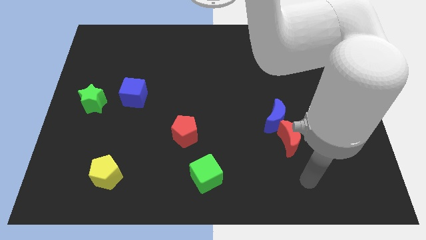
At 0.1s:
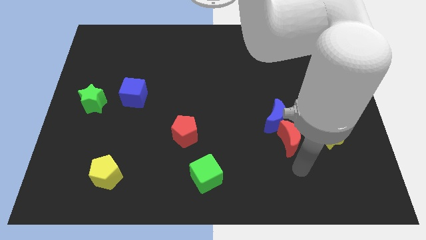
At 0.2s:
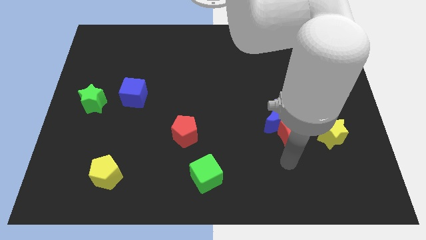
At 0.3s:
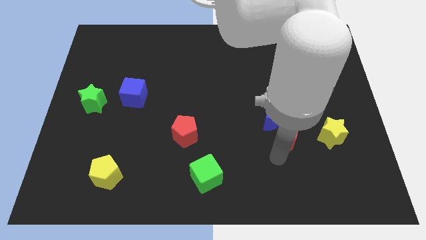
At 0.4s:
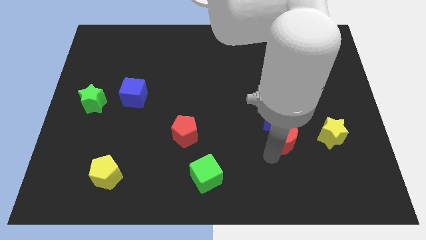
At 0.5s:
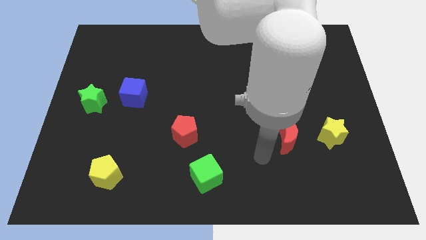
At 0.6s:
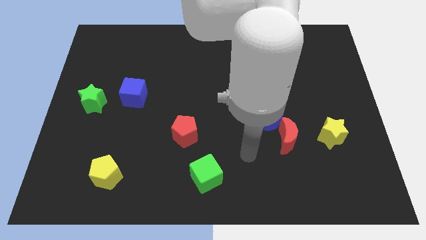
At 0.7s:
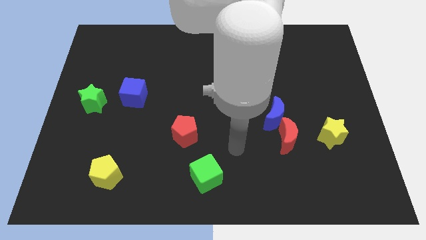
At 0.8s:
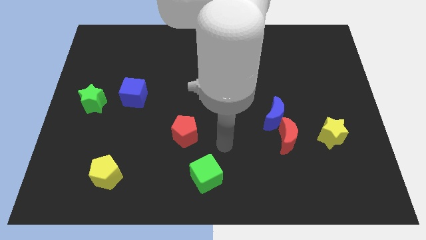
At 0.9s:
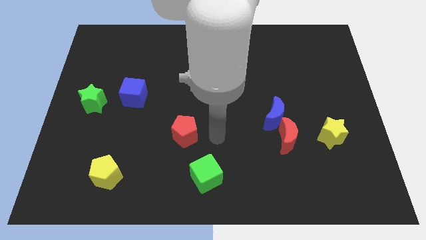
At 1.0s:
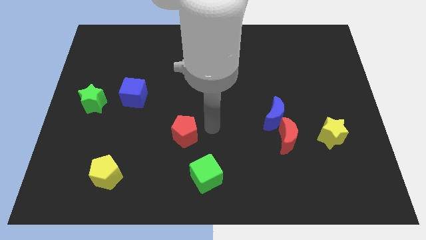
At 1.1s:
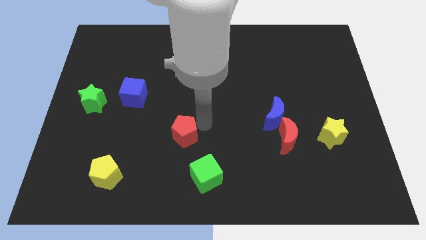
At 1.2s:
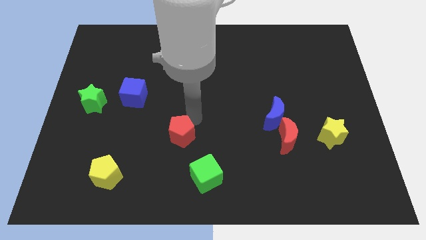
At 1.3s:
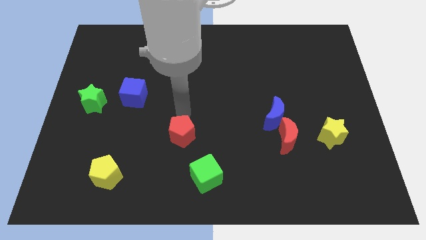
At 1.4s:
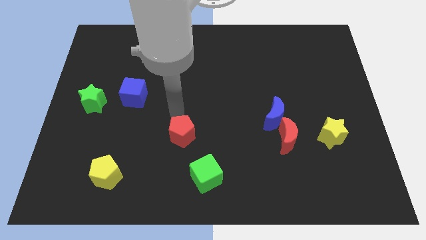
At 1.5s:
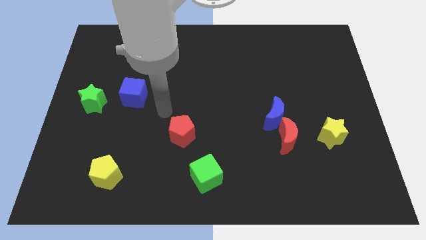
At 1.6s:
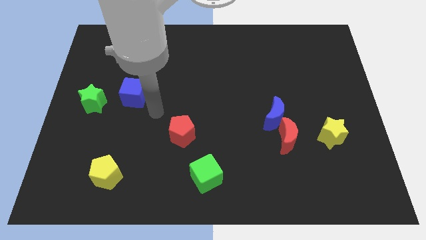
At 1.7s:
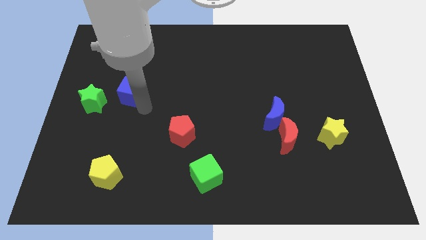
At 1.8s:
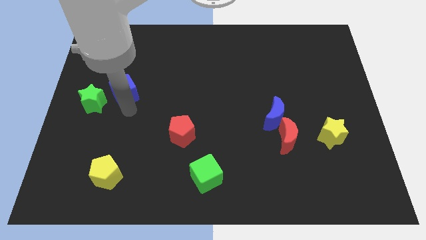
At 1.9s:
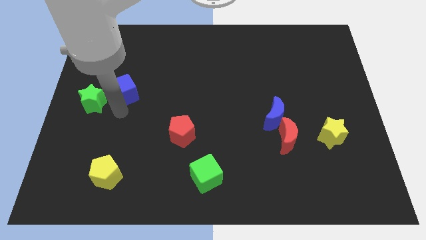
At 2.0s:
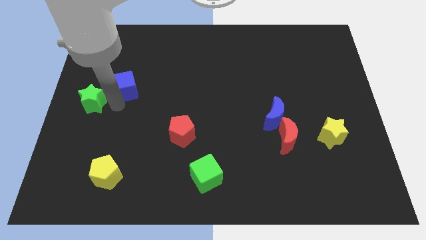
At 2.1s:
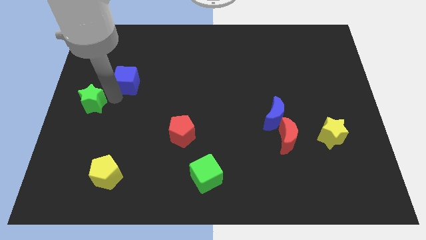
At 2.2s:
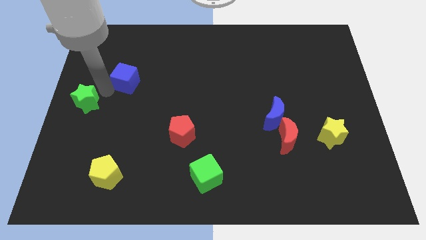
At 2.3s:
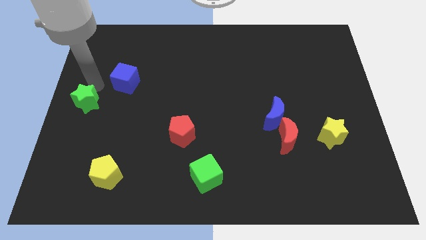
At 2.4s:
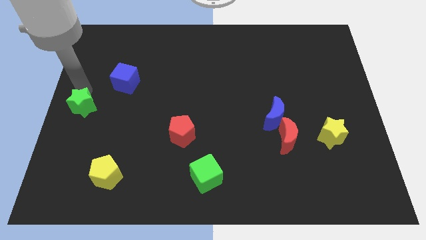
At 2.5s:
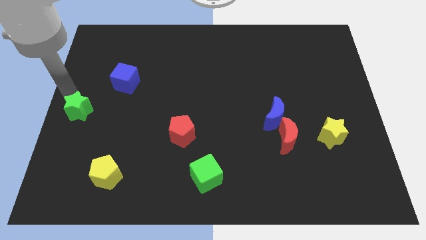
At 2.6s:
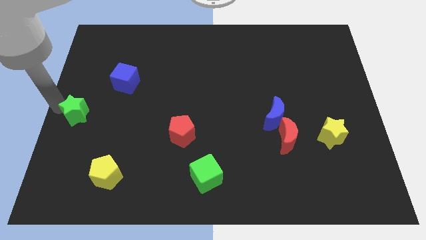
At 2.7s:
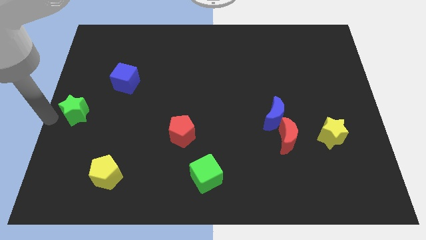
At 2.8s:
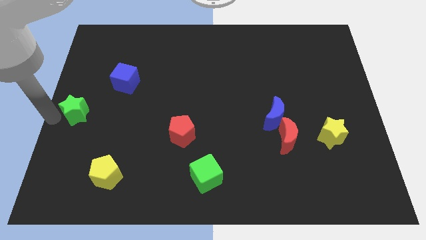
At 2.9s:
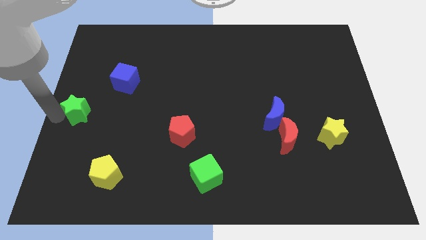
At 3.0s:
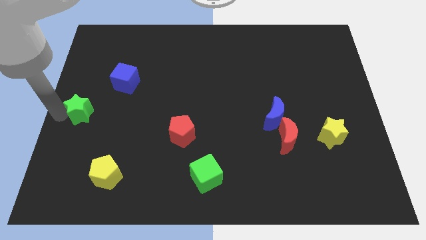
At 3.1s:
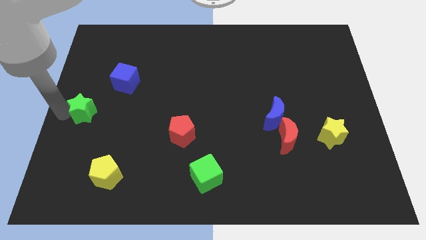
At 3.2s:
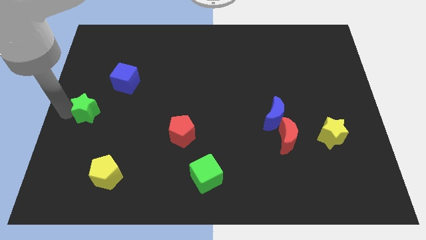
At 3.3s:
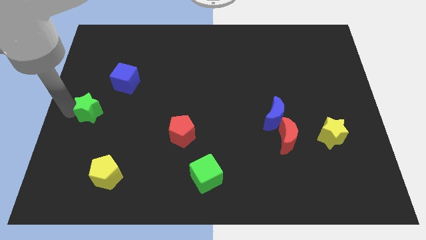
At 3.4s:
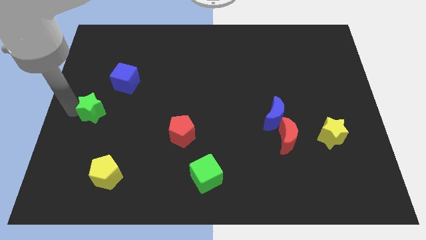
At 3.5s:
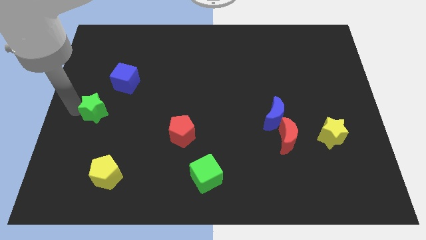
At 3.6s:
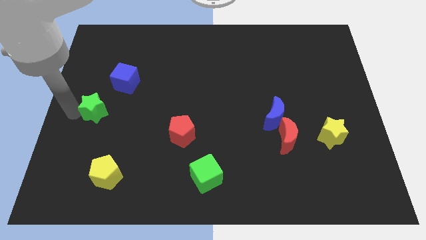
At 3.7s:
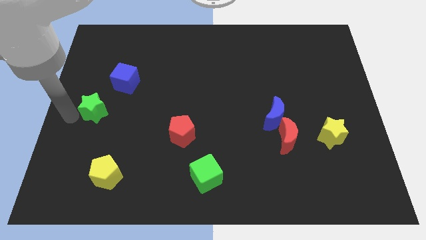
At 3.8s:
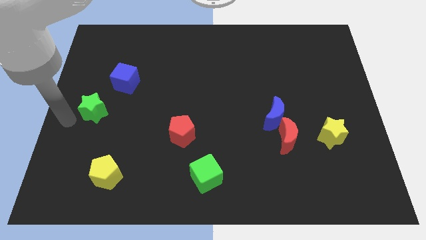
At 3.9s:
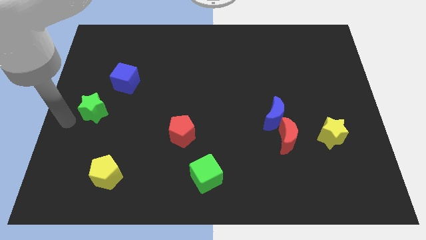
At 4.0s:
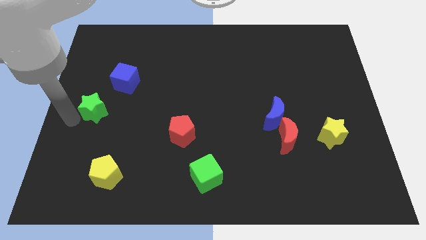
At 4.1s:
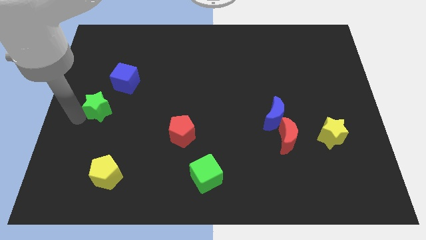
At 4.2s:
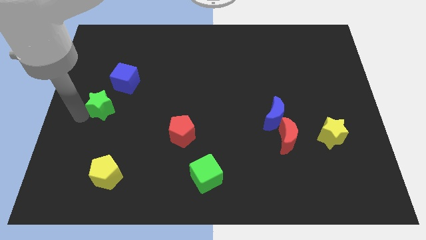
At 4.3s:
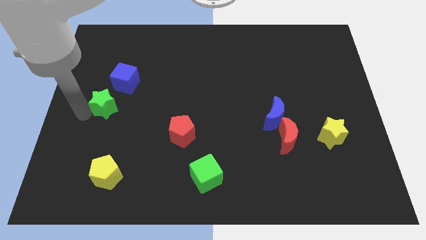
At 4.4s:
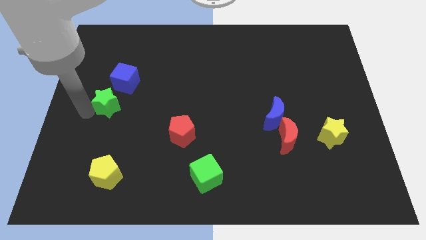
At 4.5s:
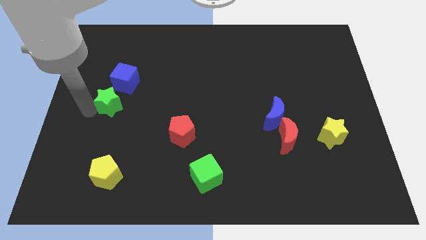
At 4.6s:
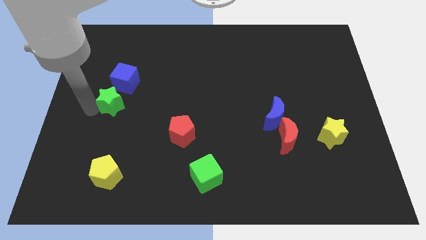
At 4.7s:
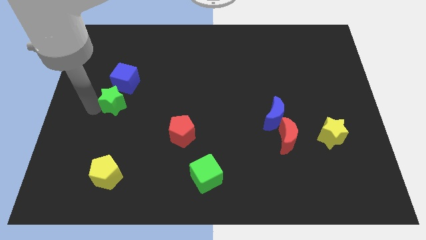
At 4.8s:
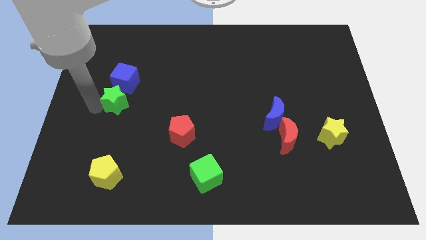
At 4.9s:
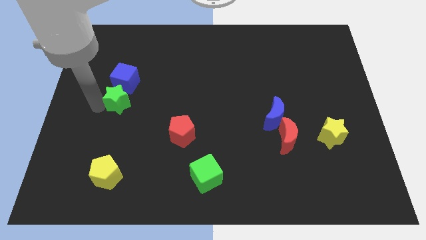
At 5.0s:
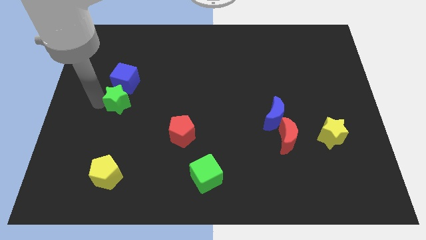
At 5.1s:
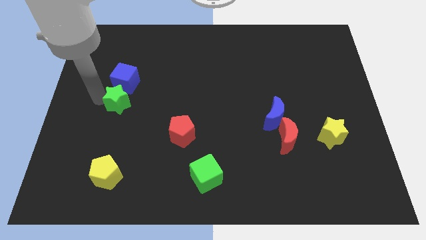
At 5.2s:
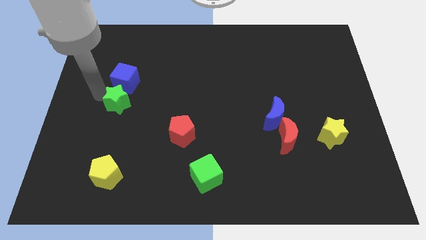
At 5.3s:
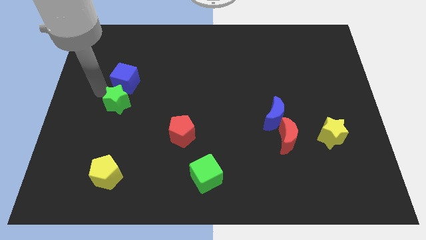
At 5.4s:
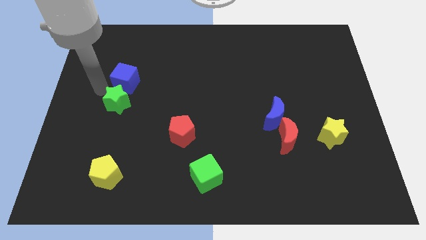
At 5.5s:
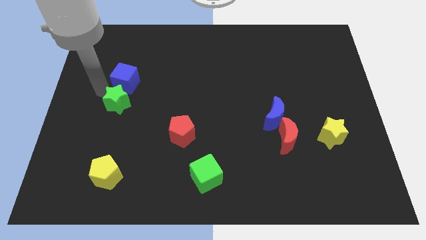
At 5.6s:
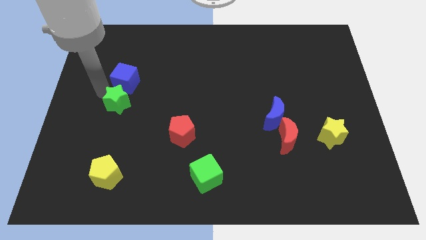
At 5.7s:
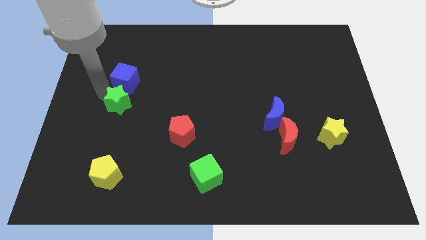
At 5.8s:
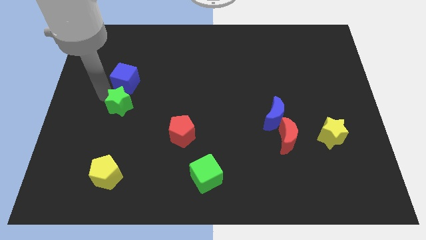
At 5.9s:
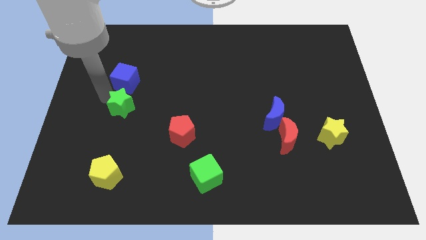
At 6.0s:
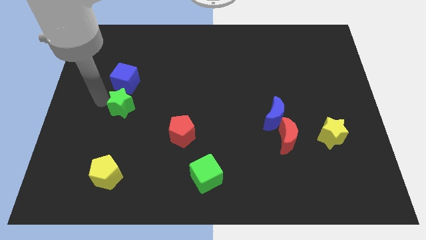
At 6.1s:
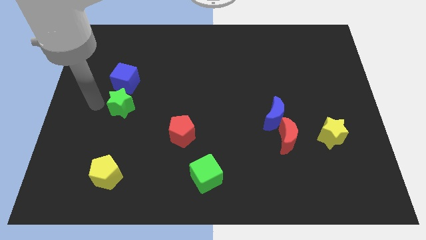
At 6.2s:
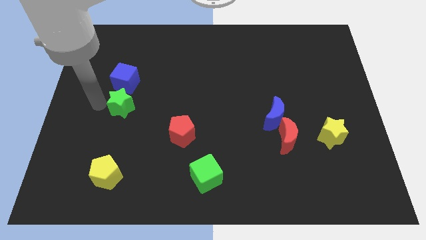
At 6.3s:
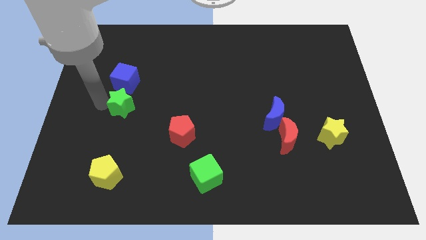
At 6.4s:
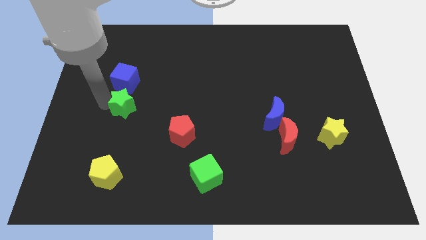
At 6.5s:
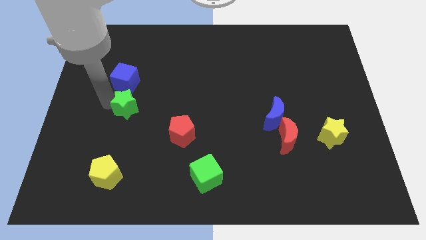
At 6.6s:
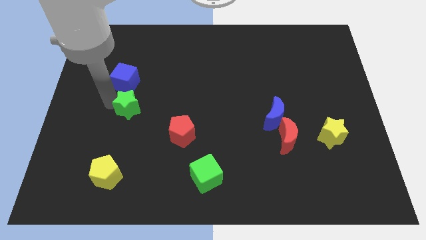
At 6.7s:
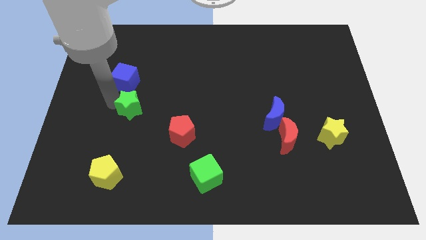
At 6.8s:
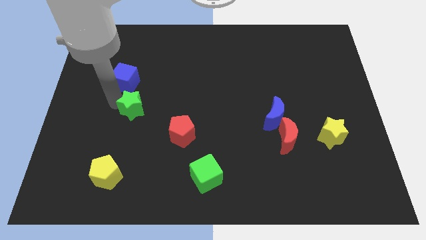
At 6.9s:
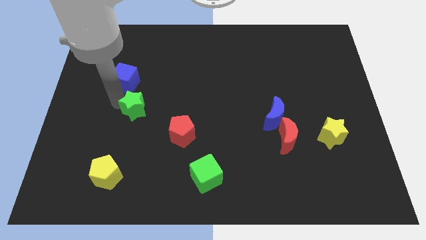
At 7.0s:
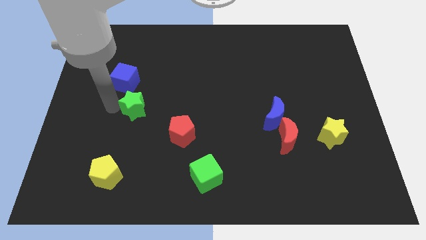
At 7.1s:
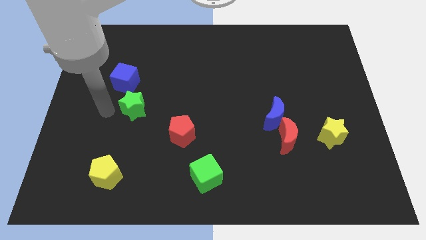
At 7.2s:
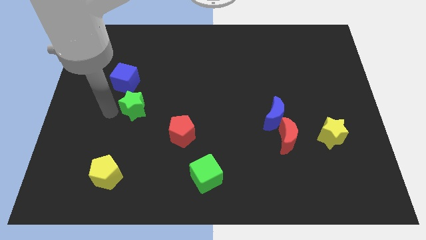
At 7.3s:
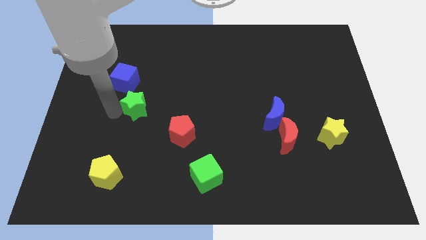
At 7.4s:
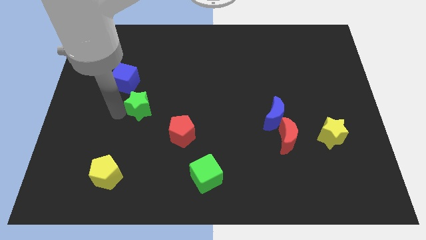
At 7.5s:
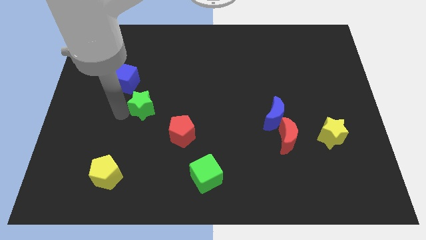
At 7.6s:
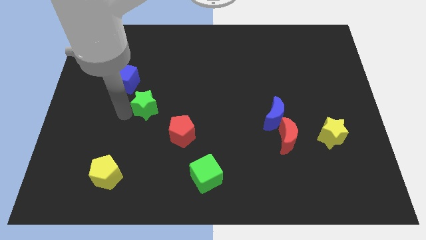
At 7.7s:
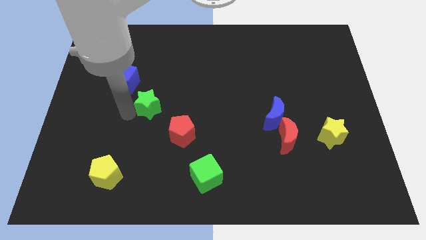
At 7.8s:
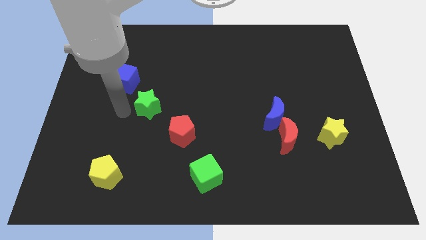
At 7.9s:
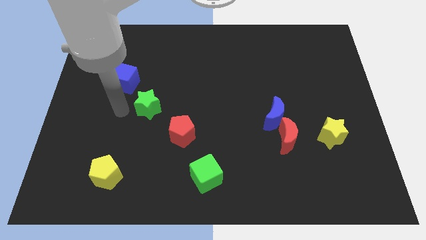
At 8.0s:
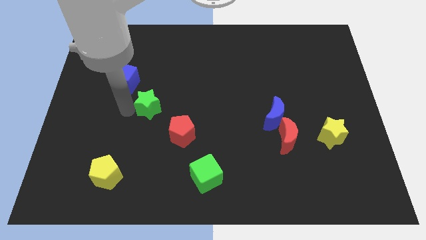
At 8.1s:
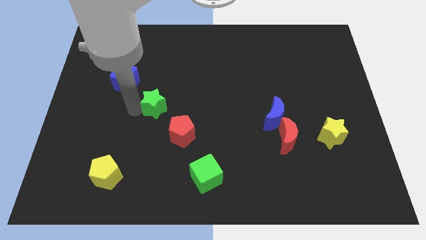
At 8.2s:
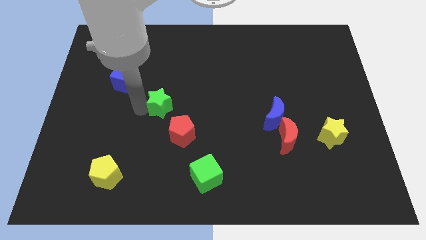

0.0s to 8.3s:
move the green star to the middle of the board
